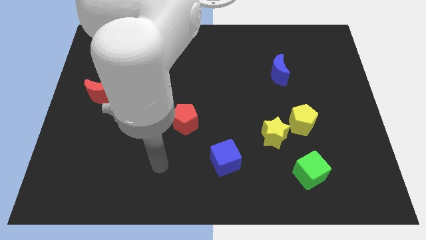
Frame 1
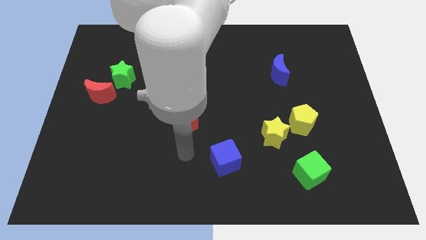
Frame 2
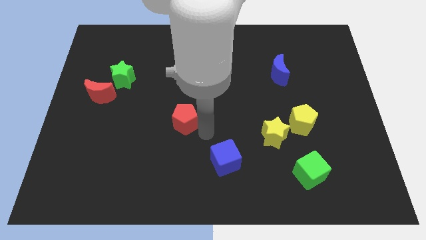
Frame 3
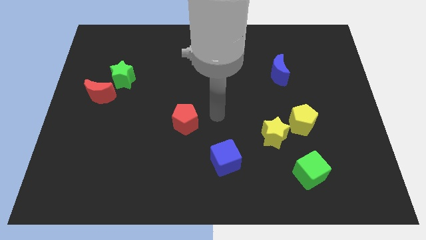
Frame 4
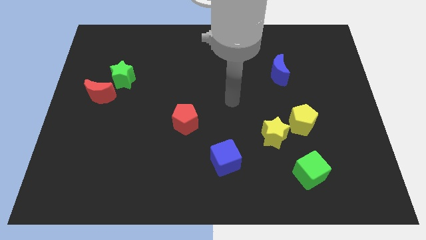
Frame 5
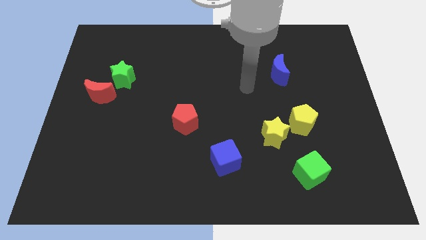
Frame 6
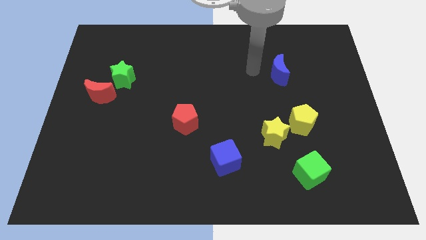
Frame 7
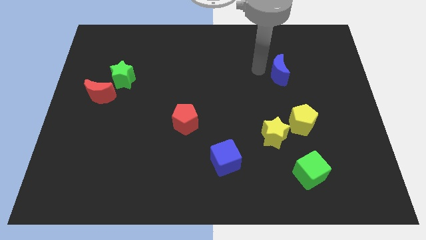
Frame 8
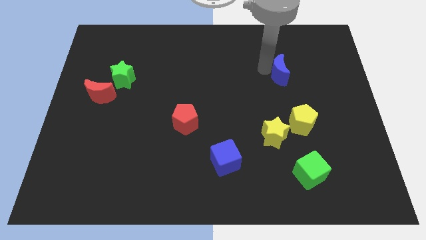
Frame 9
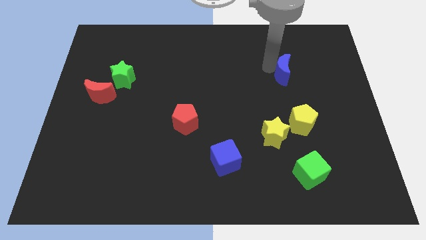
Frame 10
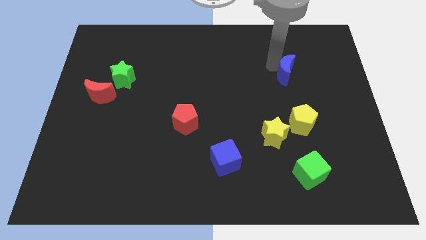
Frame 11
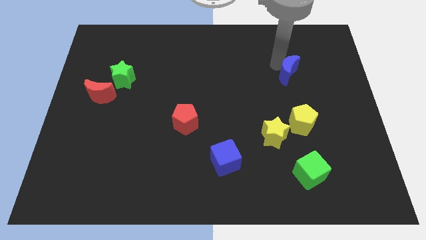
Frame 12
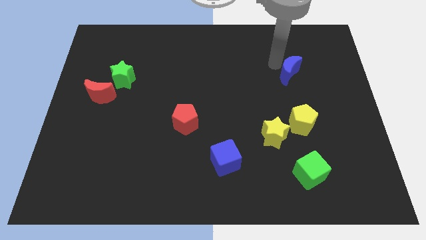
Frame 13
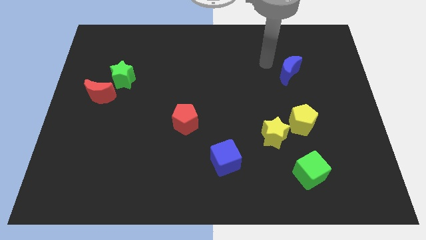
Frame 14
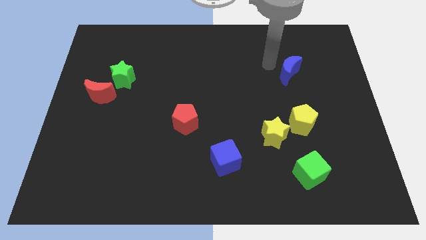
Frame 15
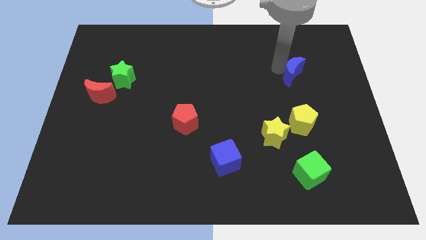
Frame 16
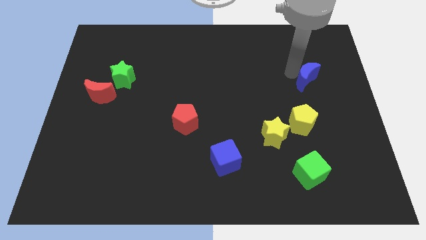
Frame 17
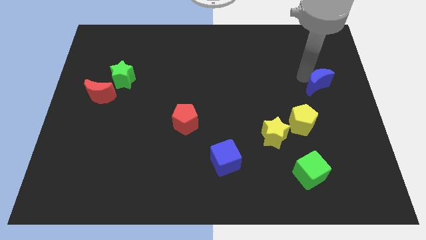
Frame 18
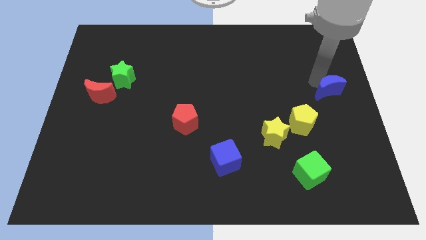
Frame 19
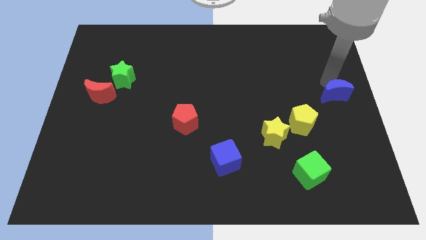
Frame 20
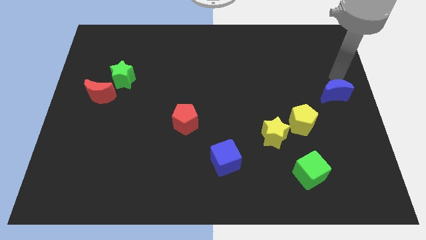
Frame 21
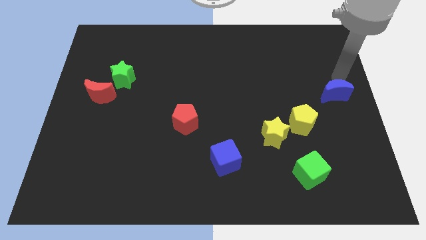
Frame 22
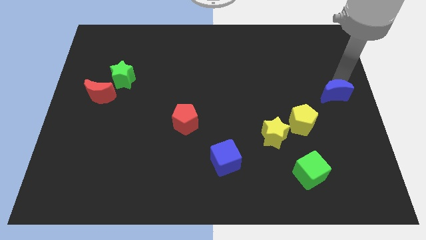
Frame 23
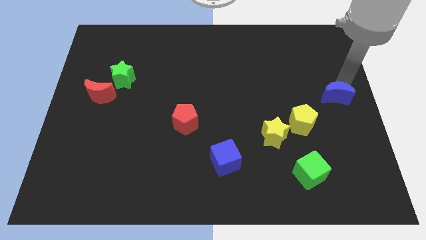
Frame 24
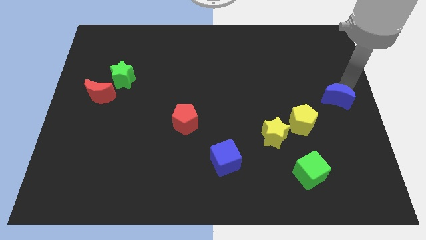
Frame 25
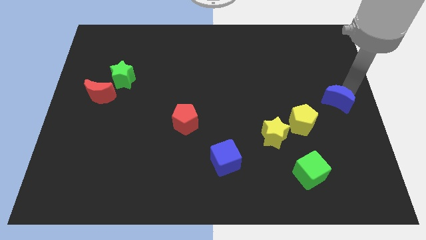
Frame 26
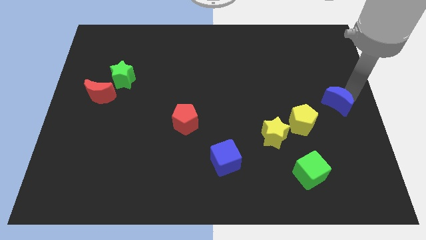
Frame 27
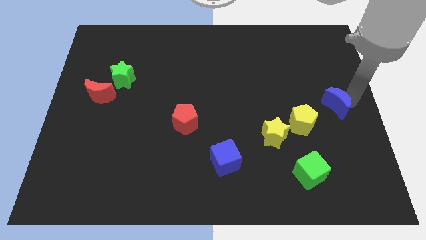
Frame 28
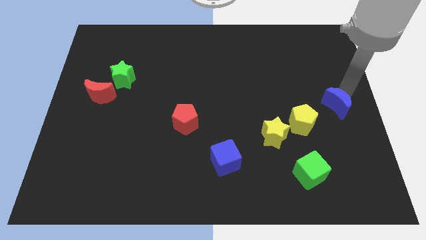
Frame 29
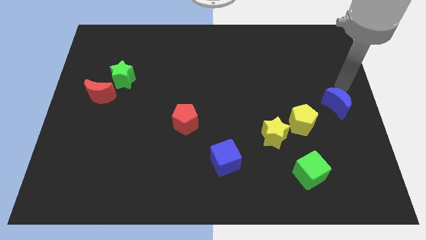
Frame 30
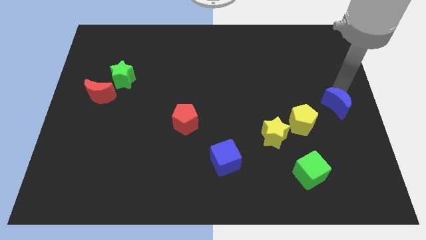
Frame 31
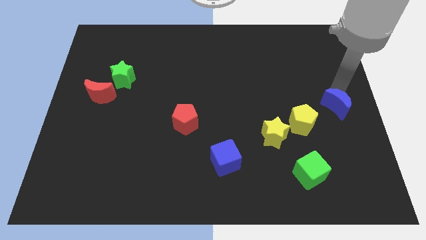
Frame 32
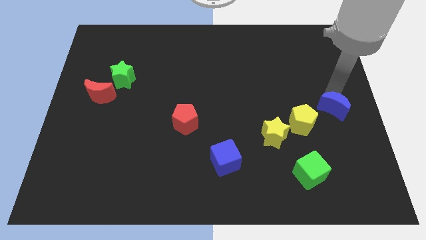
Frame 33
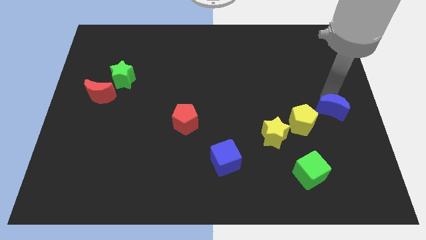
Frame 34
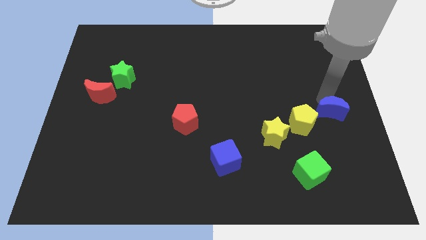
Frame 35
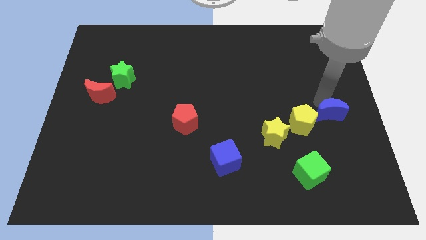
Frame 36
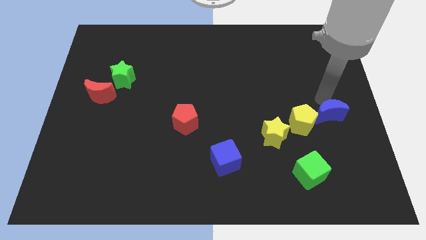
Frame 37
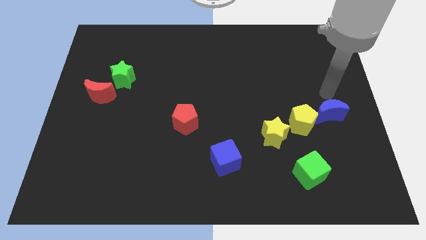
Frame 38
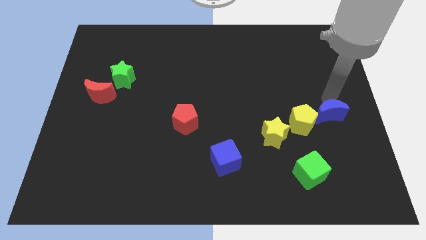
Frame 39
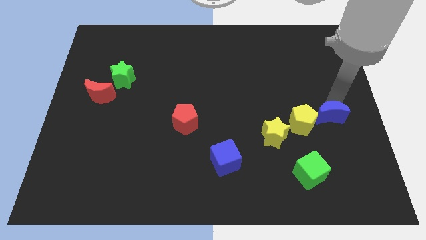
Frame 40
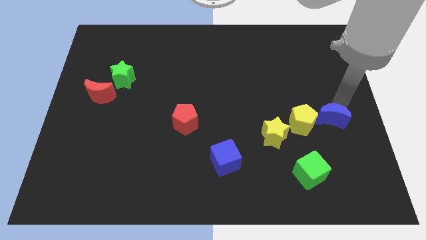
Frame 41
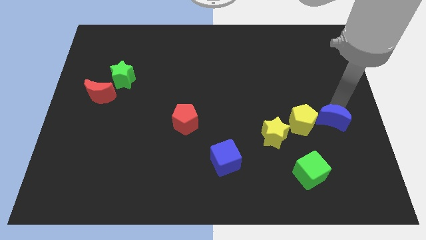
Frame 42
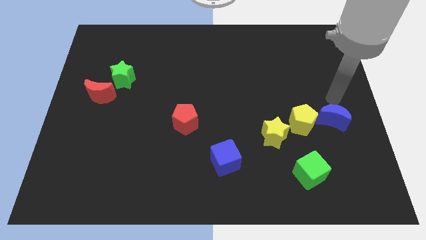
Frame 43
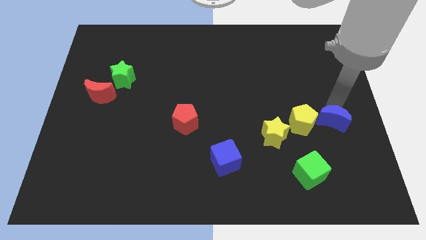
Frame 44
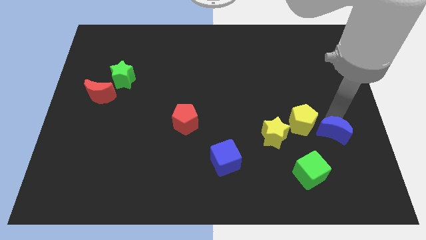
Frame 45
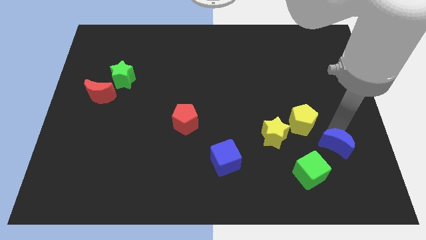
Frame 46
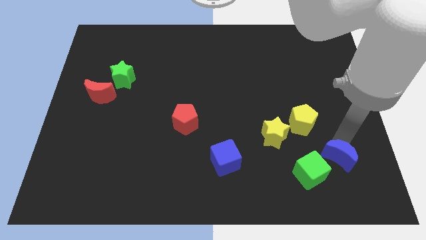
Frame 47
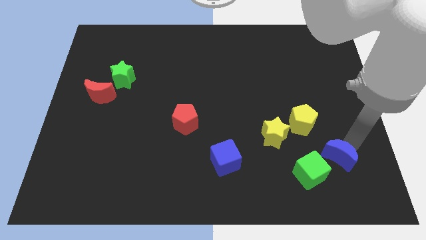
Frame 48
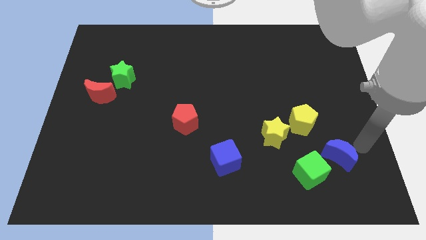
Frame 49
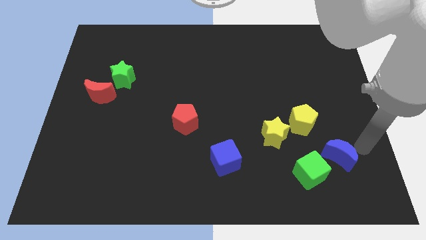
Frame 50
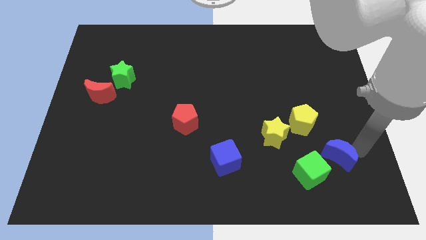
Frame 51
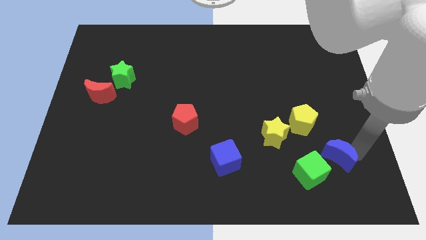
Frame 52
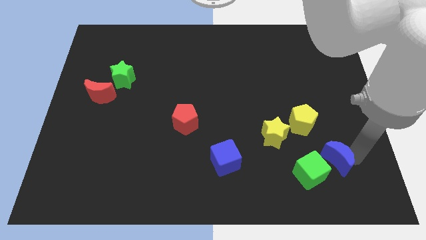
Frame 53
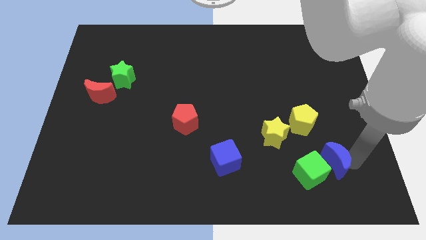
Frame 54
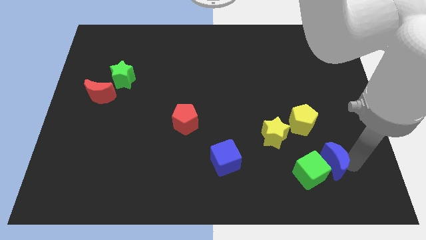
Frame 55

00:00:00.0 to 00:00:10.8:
slide the blue moon to the green cube

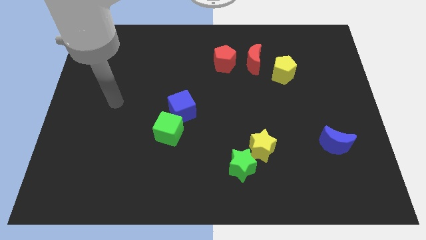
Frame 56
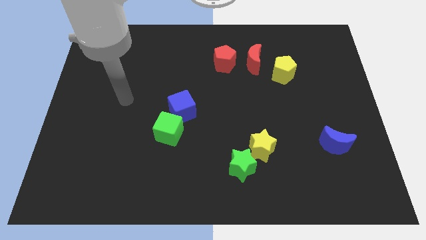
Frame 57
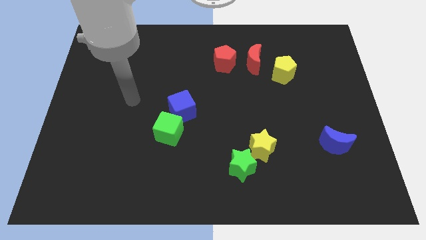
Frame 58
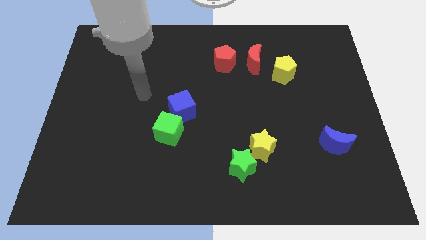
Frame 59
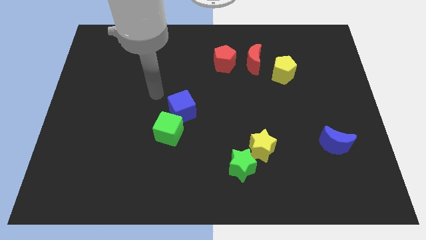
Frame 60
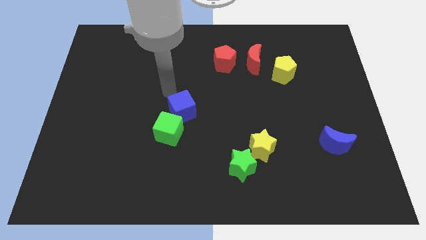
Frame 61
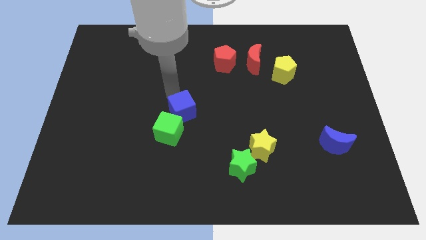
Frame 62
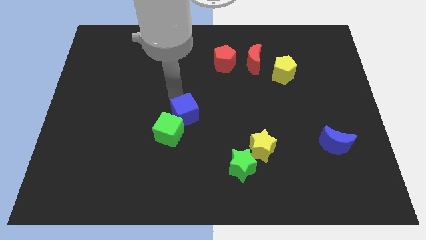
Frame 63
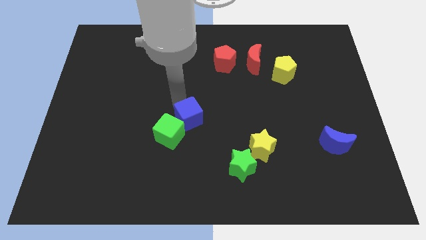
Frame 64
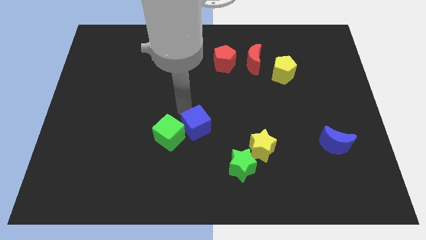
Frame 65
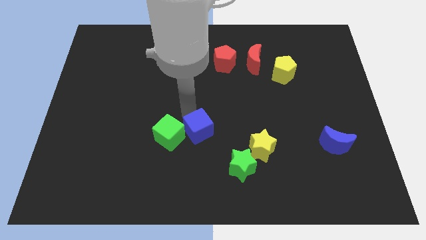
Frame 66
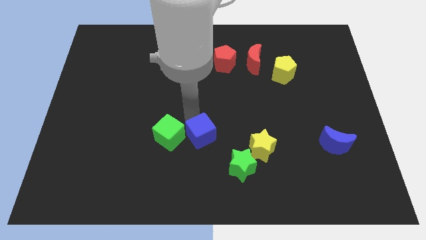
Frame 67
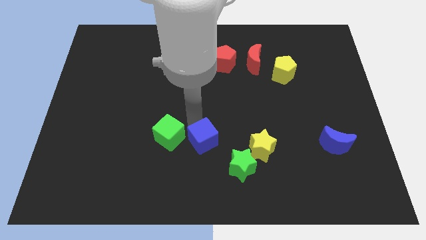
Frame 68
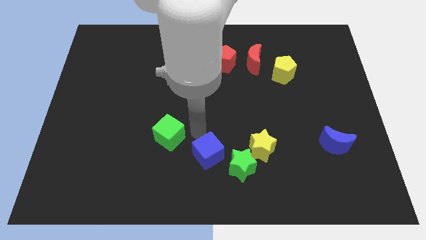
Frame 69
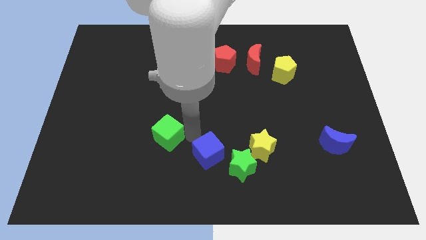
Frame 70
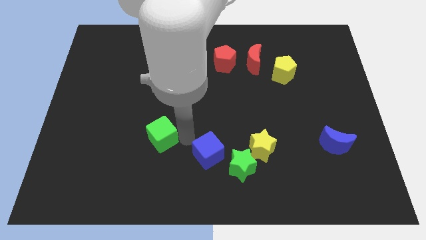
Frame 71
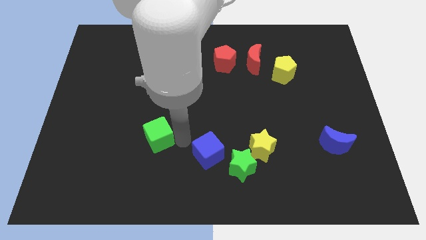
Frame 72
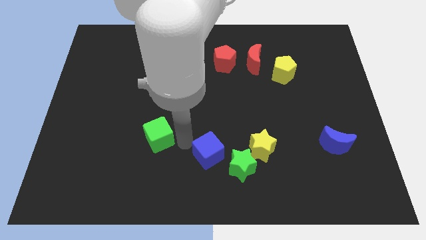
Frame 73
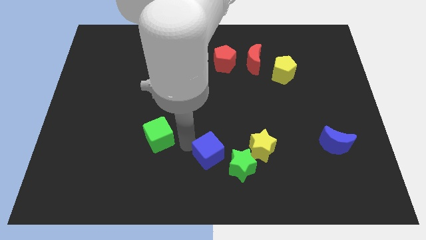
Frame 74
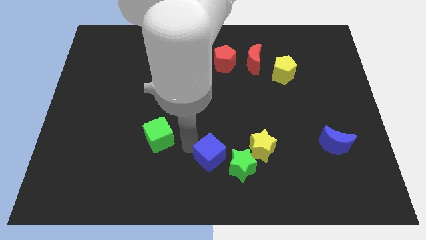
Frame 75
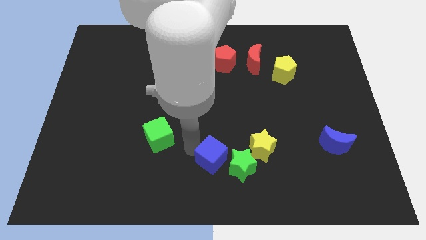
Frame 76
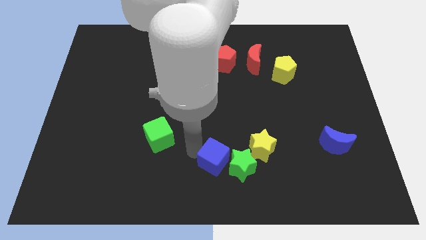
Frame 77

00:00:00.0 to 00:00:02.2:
put the blue cube close to the green star
